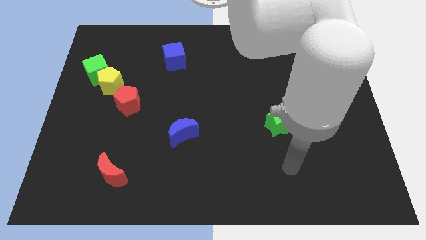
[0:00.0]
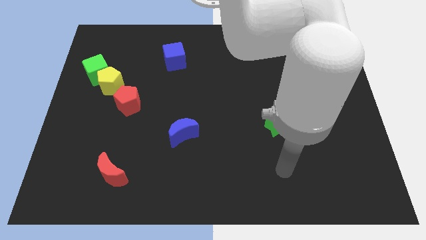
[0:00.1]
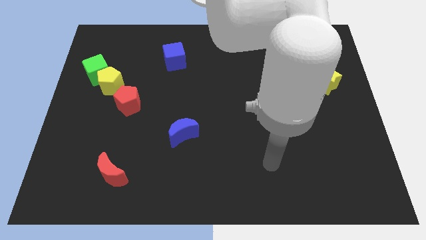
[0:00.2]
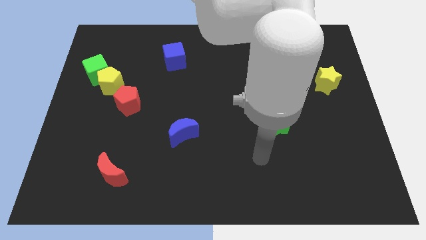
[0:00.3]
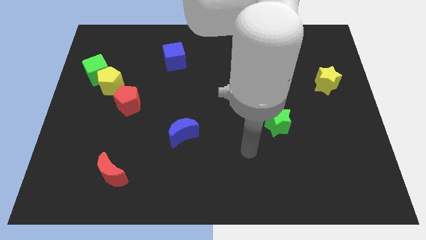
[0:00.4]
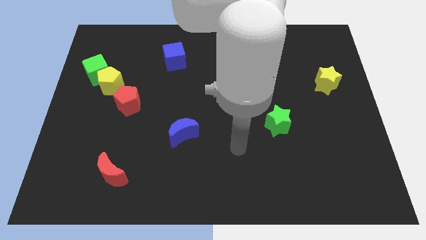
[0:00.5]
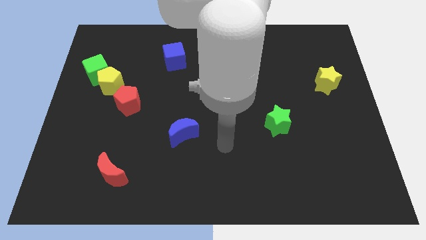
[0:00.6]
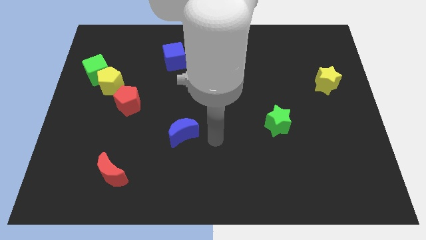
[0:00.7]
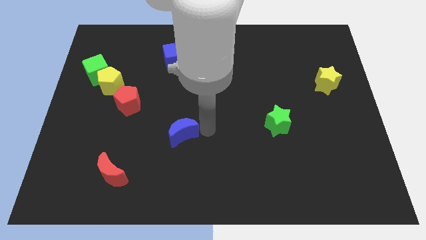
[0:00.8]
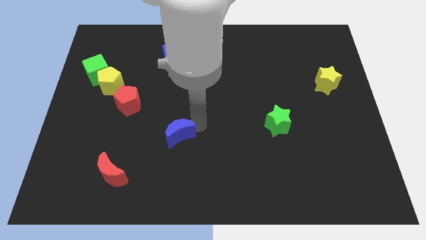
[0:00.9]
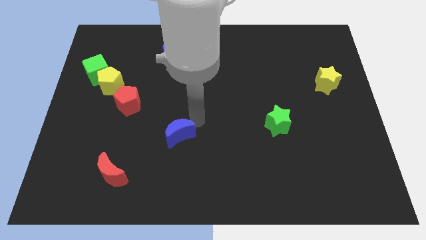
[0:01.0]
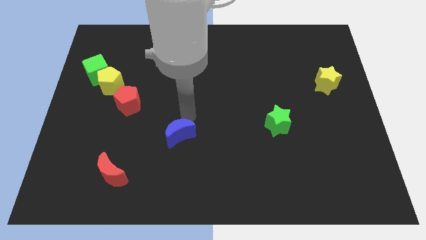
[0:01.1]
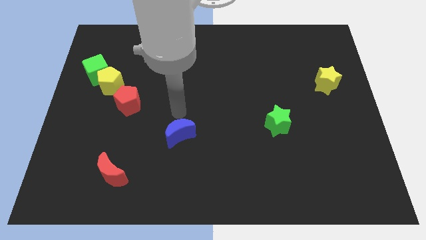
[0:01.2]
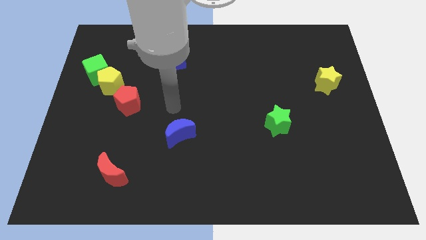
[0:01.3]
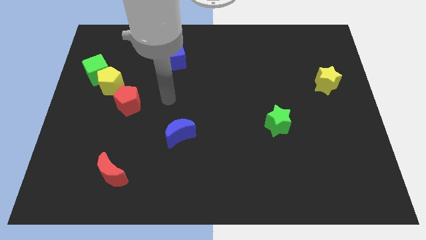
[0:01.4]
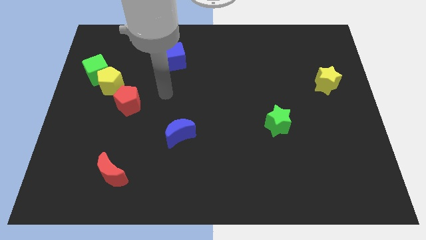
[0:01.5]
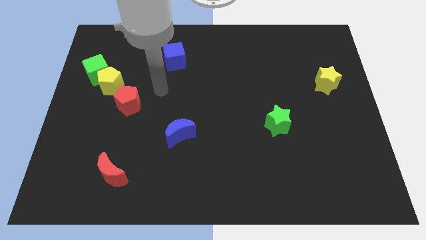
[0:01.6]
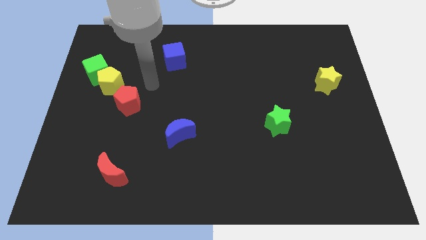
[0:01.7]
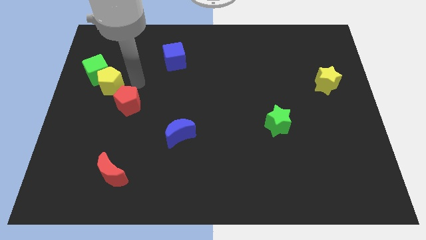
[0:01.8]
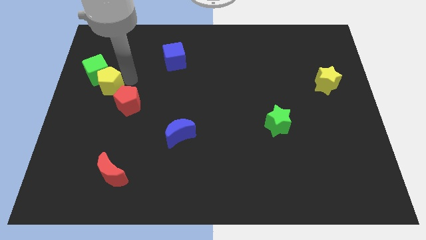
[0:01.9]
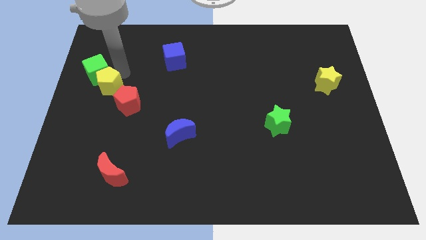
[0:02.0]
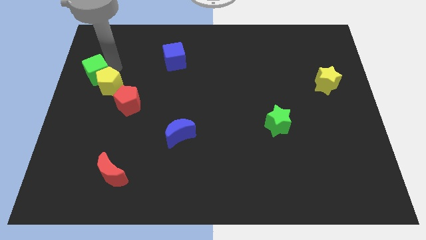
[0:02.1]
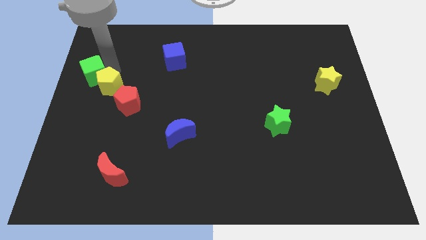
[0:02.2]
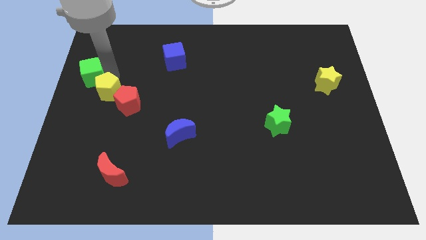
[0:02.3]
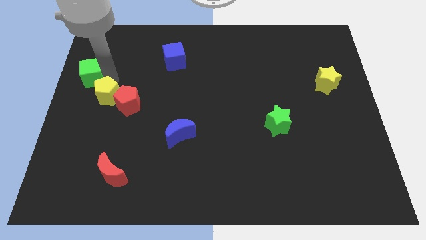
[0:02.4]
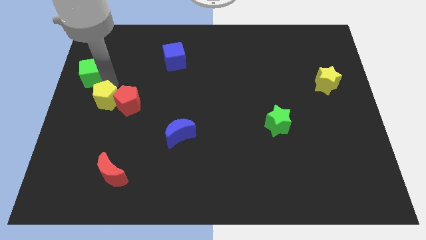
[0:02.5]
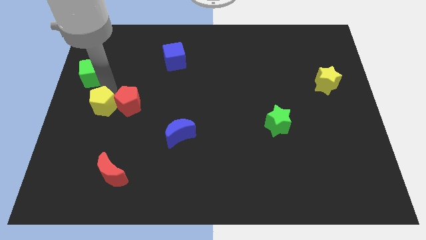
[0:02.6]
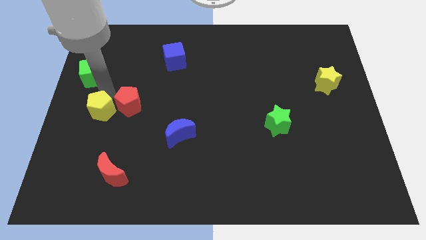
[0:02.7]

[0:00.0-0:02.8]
push the yellow pentagon a bit downwards

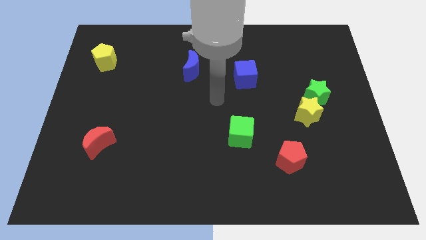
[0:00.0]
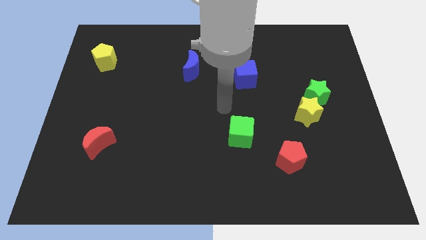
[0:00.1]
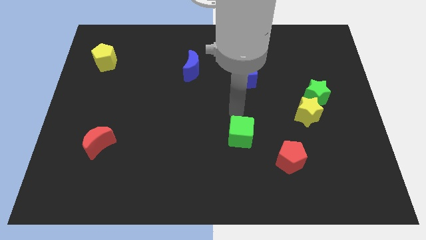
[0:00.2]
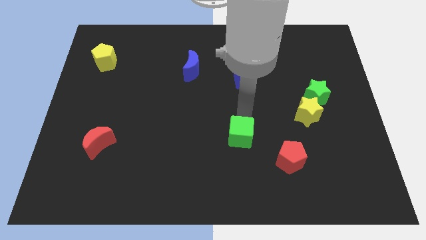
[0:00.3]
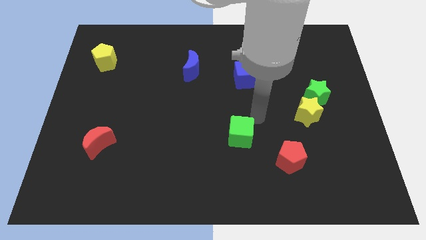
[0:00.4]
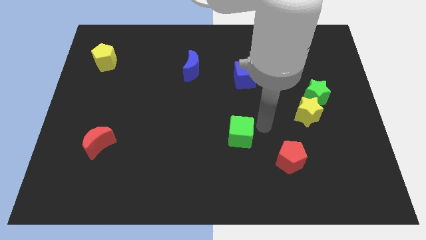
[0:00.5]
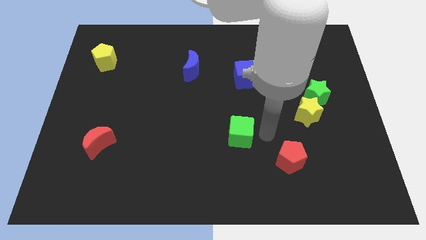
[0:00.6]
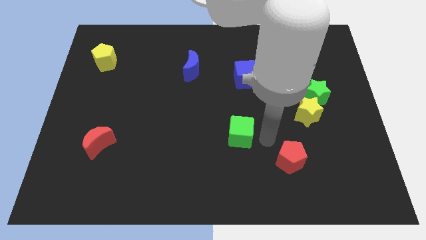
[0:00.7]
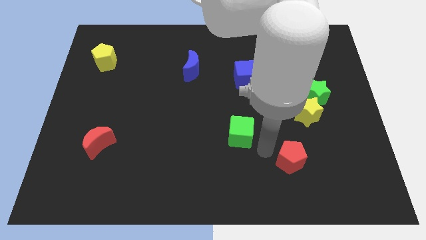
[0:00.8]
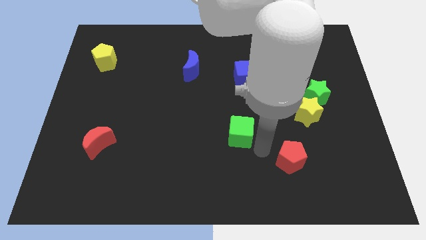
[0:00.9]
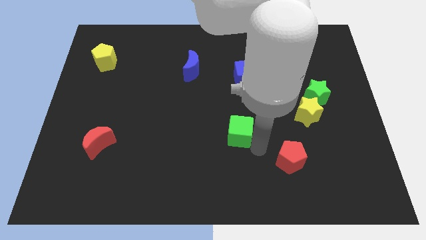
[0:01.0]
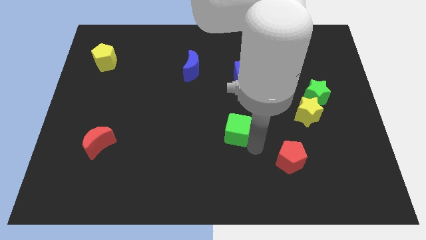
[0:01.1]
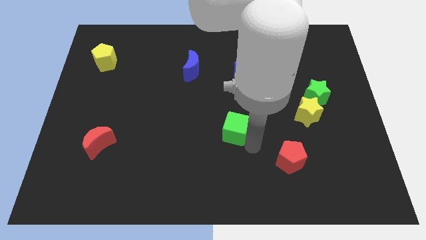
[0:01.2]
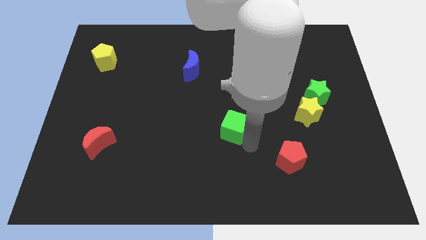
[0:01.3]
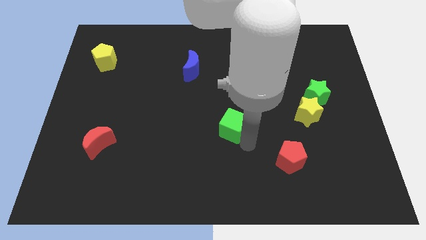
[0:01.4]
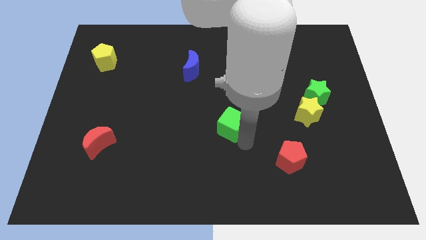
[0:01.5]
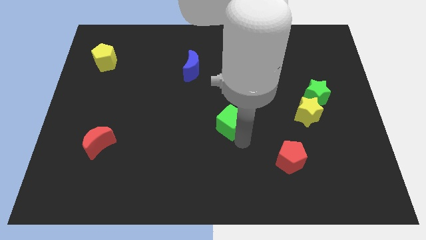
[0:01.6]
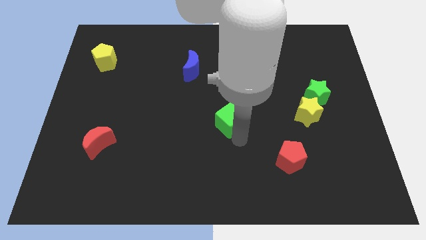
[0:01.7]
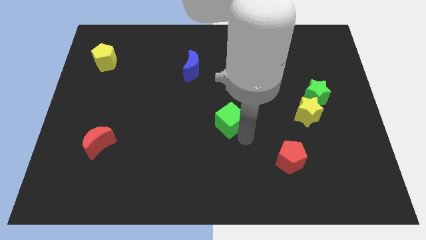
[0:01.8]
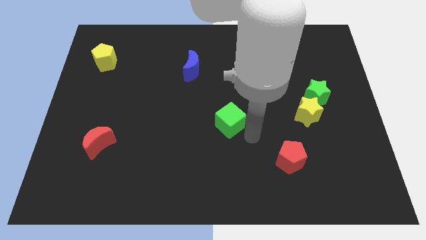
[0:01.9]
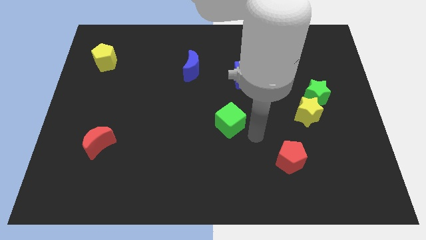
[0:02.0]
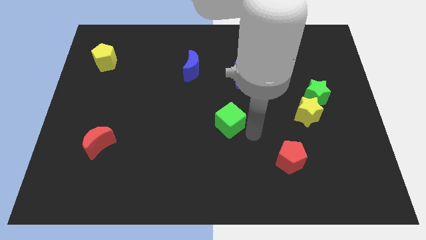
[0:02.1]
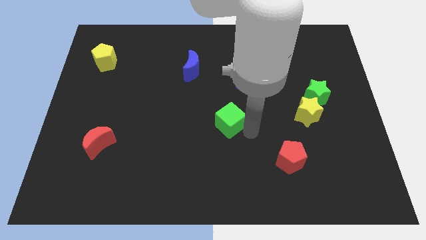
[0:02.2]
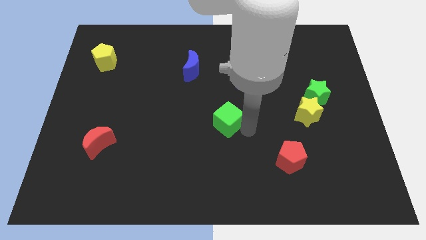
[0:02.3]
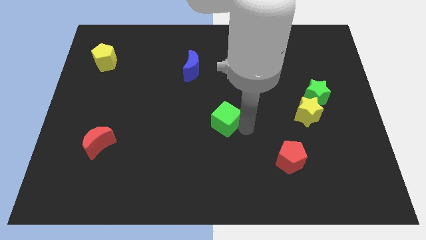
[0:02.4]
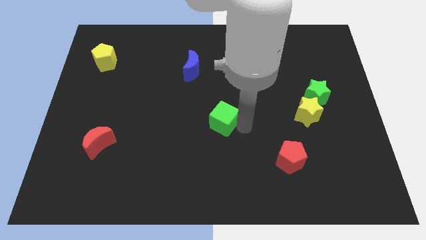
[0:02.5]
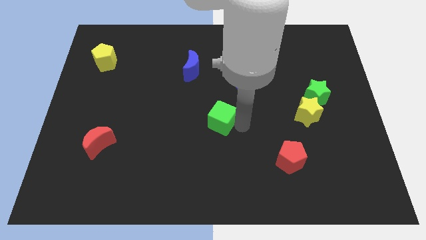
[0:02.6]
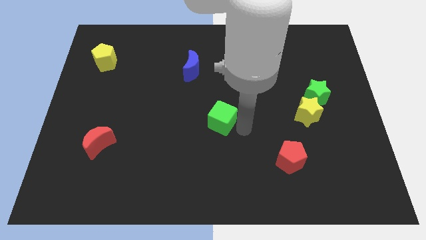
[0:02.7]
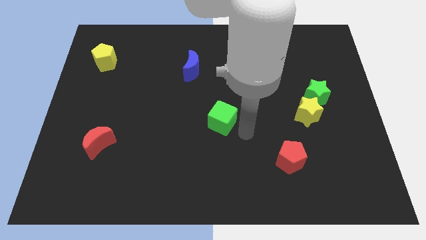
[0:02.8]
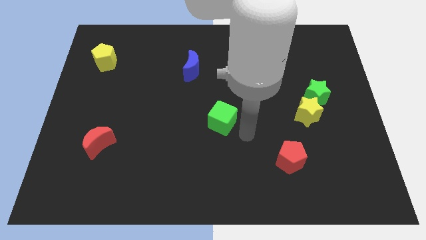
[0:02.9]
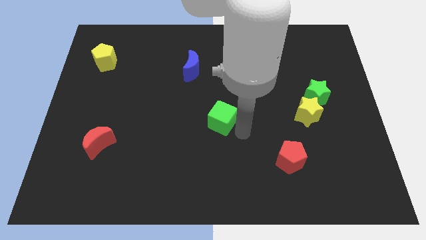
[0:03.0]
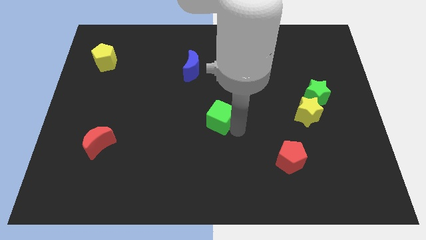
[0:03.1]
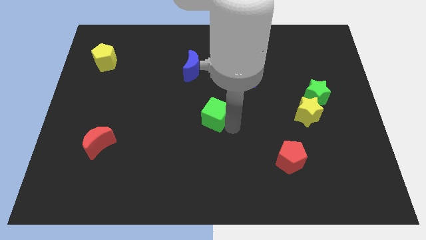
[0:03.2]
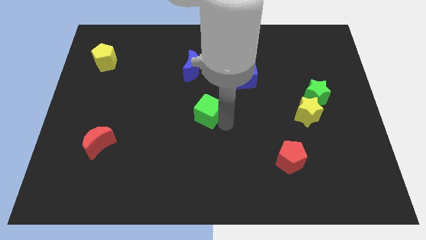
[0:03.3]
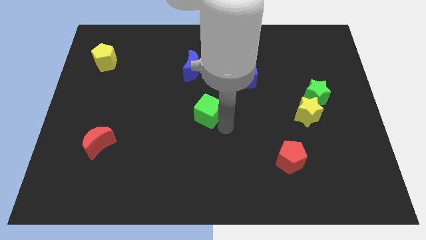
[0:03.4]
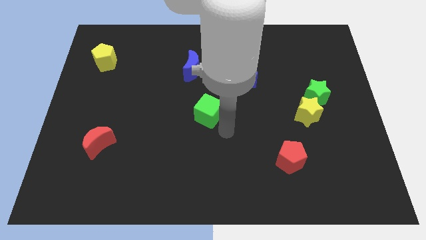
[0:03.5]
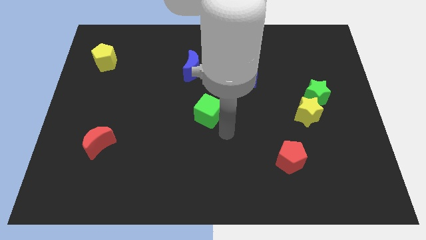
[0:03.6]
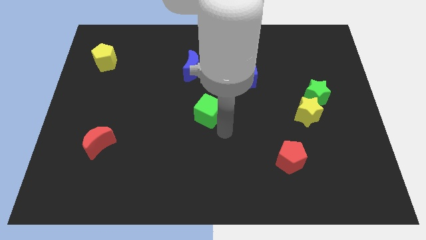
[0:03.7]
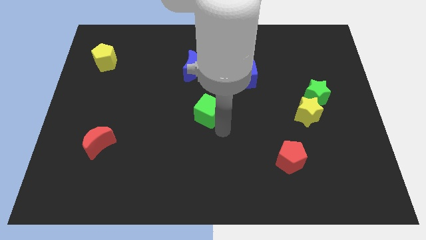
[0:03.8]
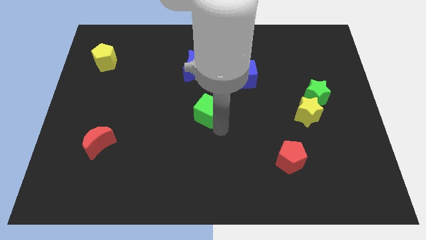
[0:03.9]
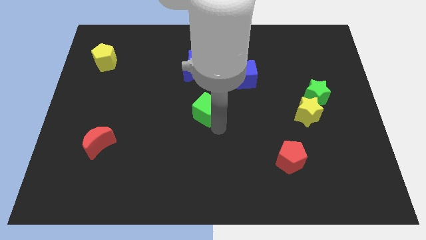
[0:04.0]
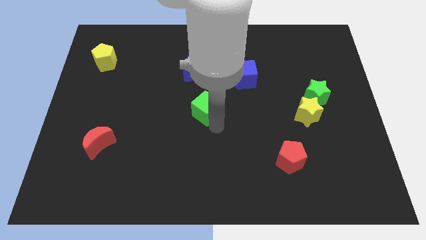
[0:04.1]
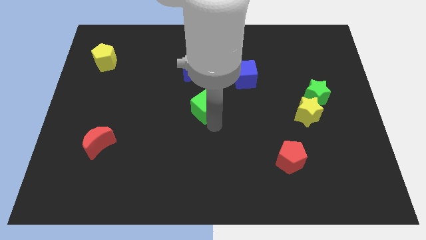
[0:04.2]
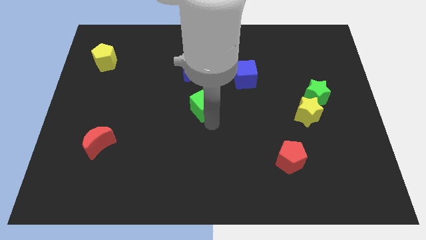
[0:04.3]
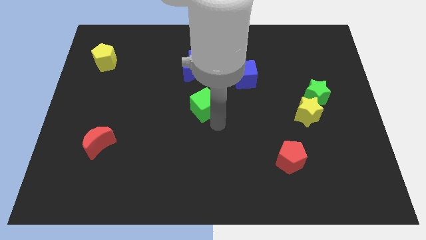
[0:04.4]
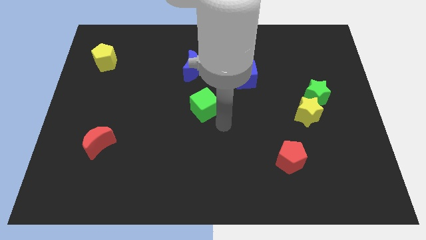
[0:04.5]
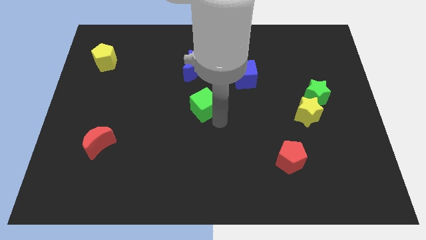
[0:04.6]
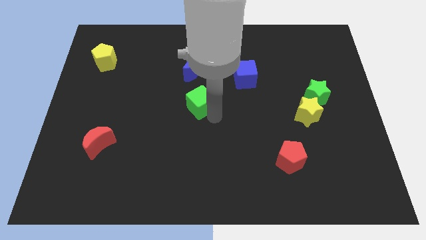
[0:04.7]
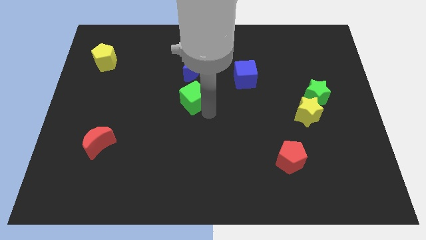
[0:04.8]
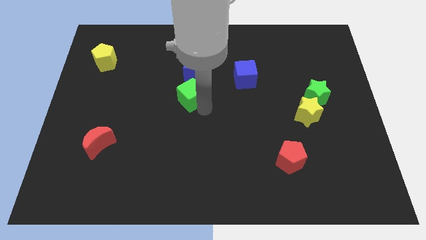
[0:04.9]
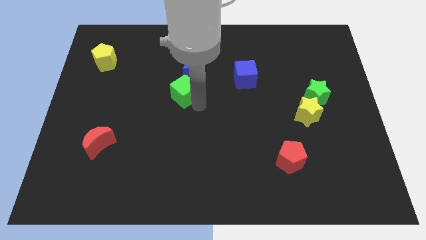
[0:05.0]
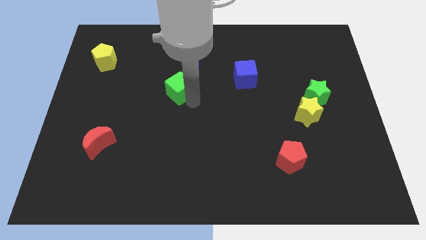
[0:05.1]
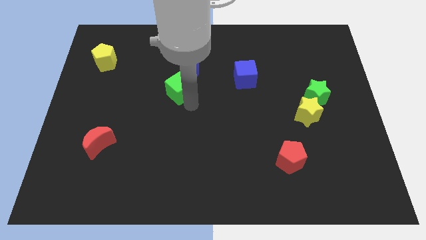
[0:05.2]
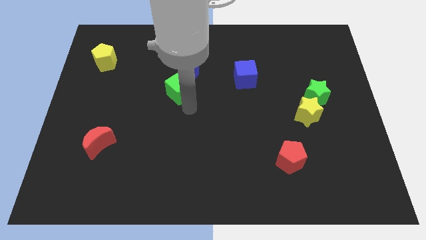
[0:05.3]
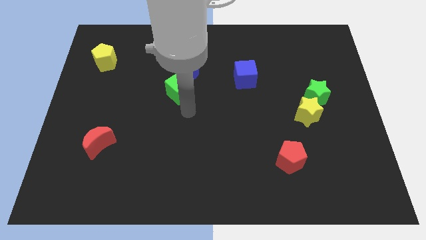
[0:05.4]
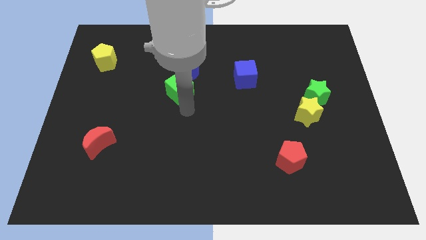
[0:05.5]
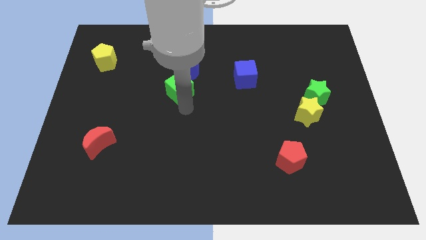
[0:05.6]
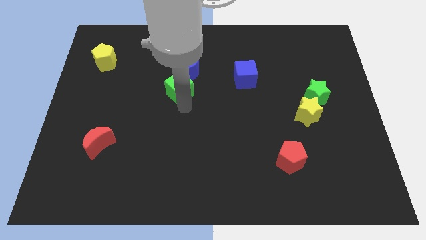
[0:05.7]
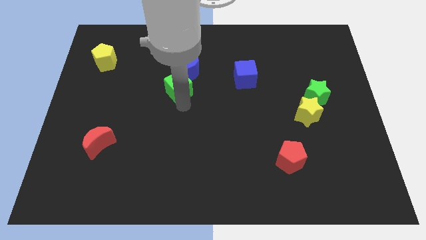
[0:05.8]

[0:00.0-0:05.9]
push the green cube upwards and to the left
